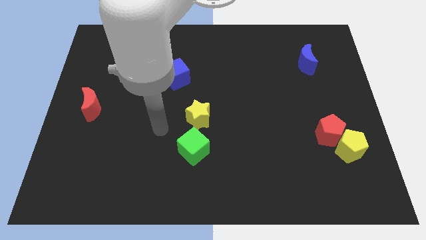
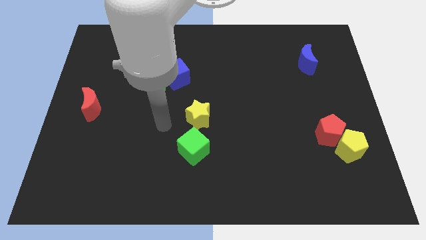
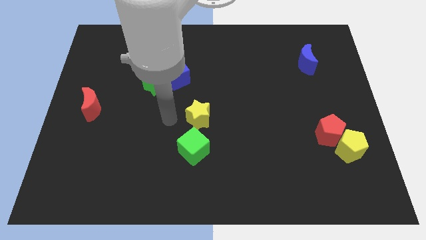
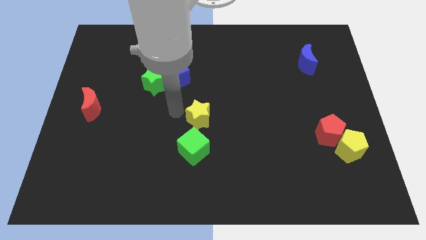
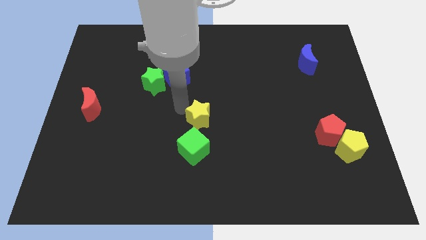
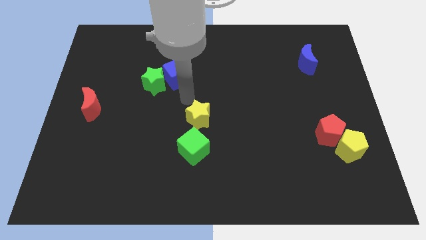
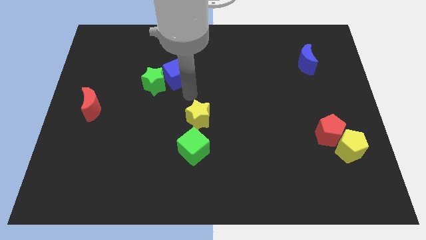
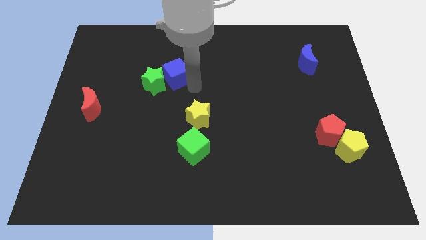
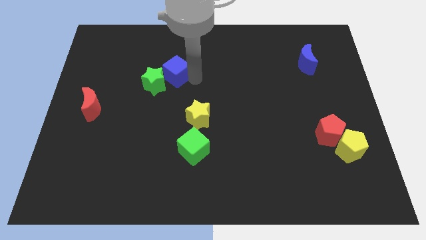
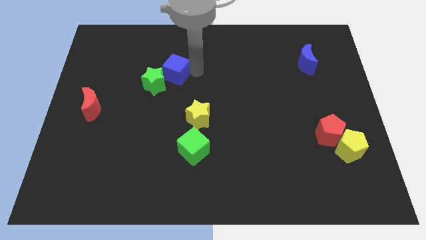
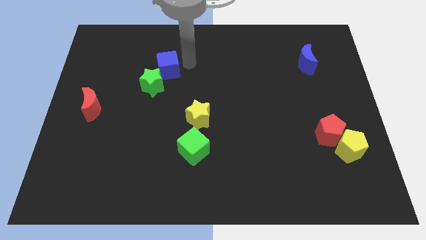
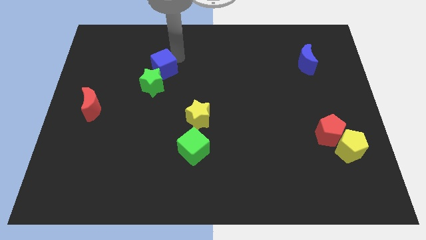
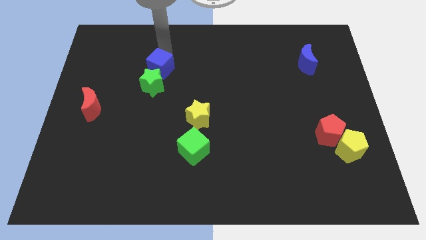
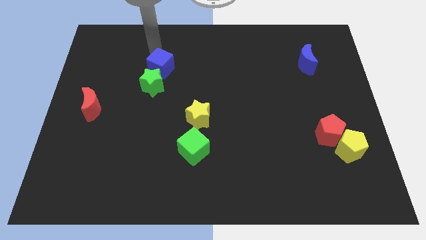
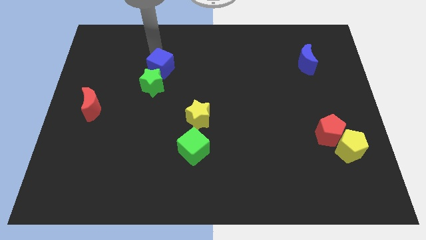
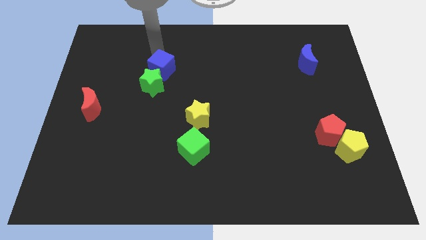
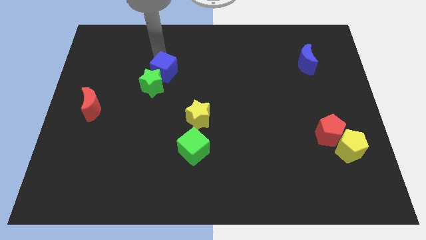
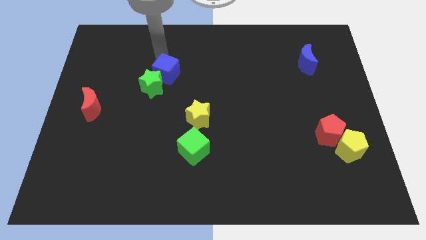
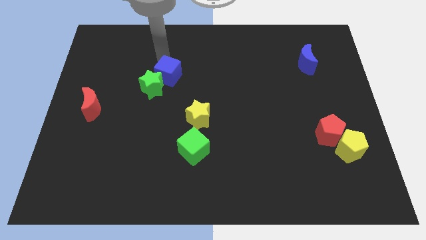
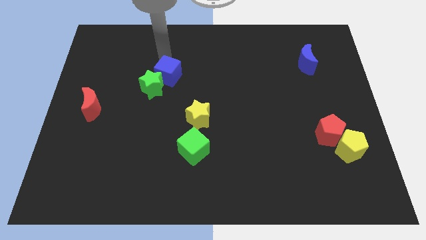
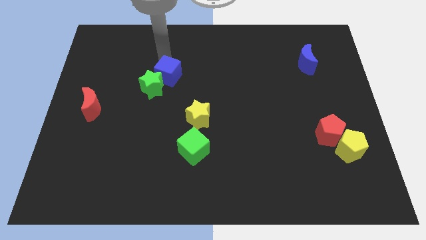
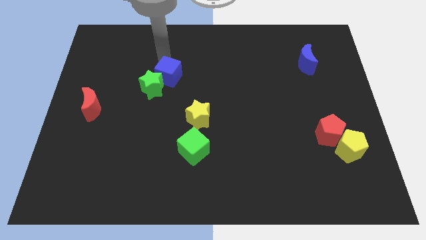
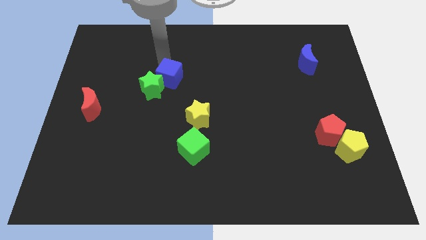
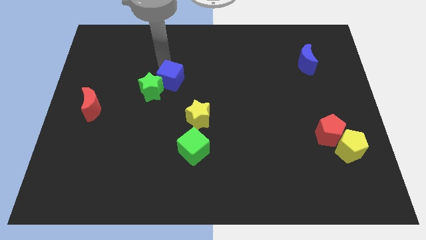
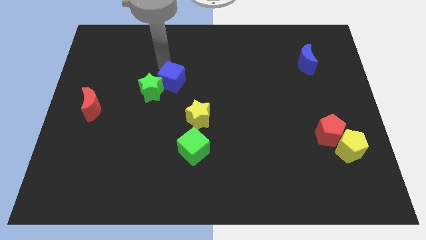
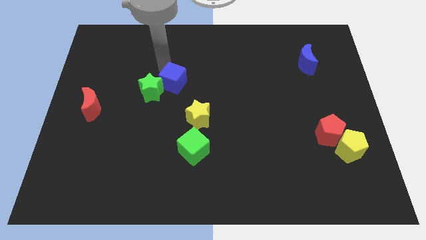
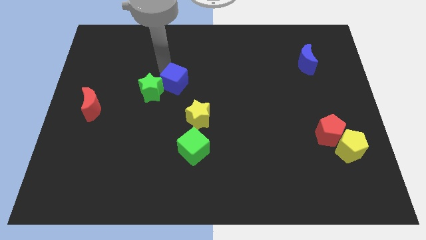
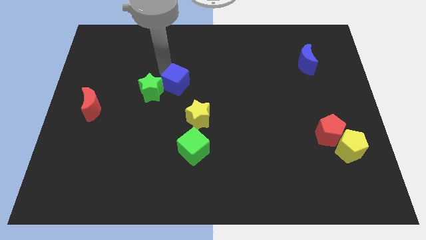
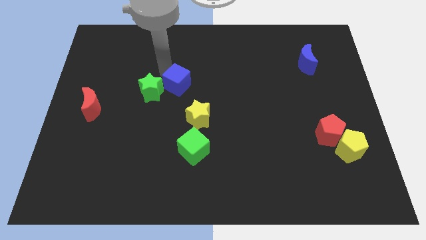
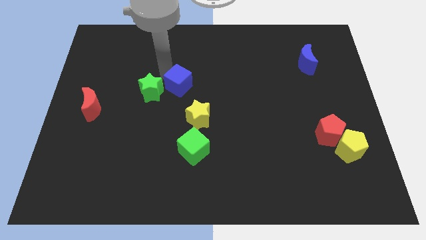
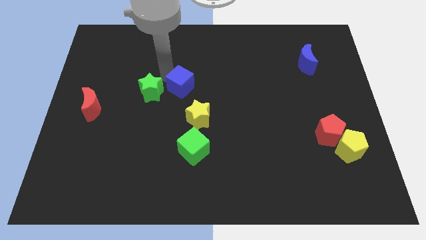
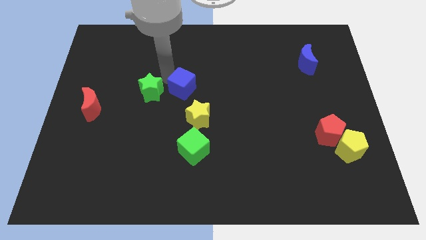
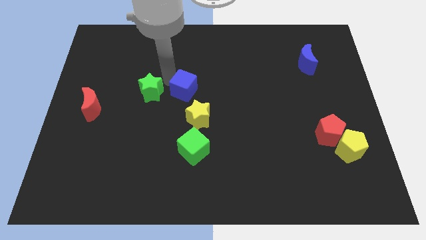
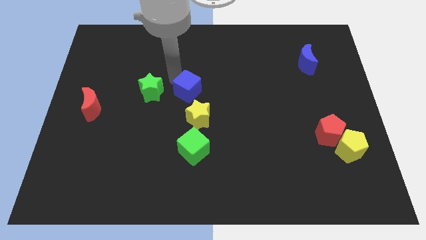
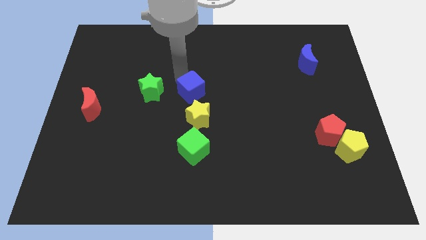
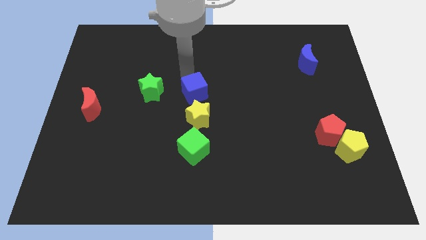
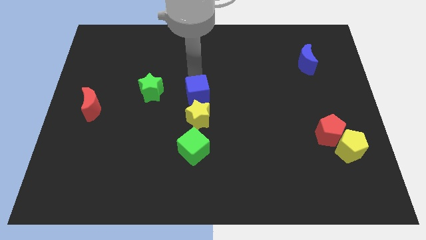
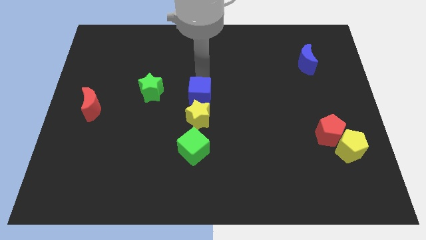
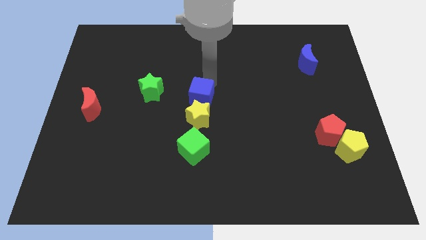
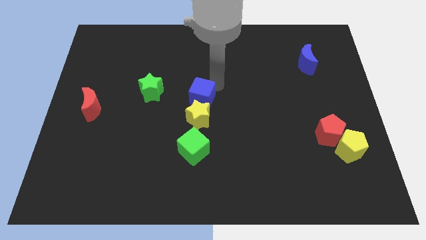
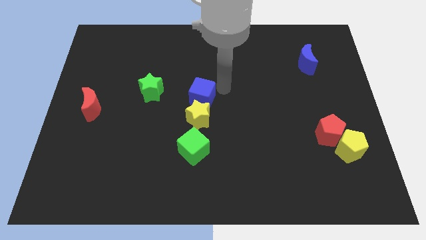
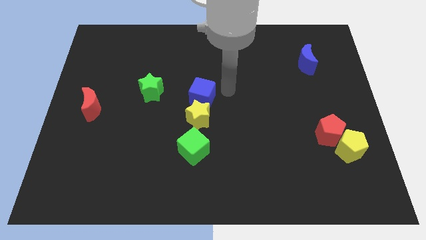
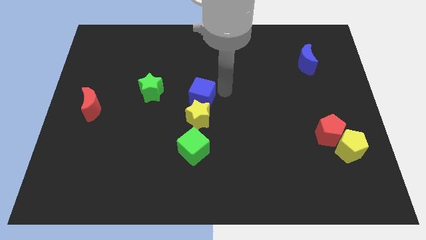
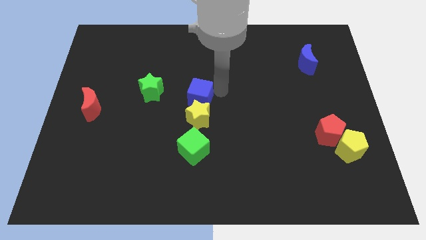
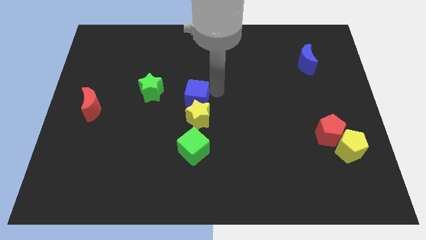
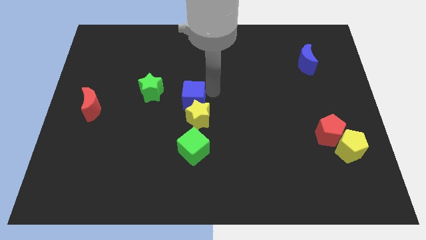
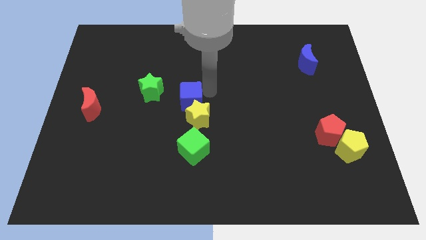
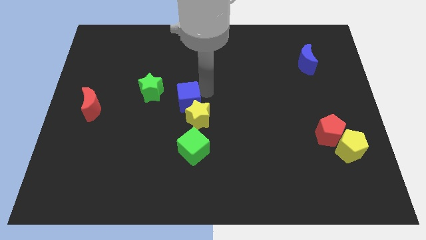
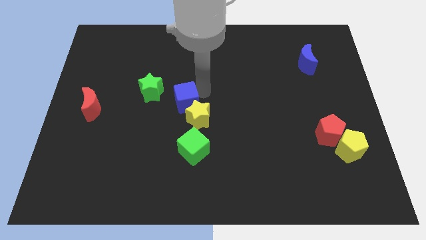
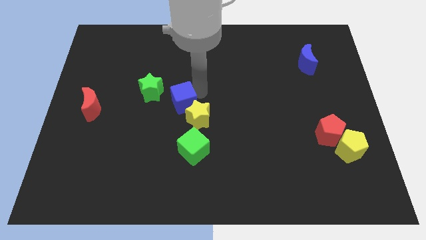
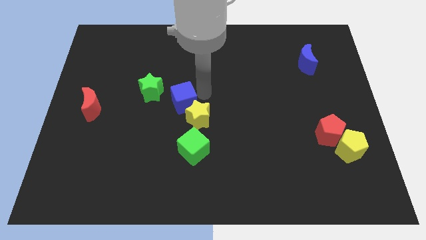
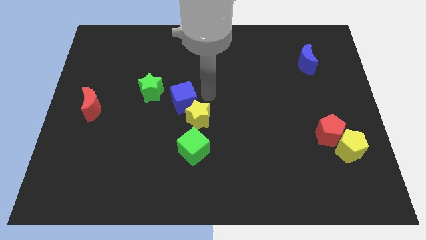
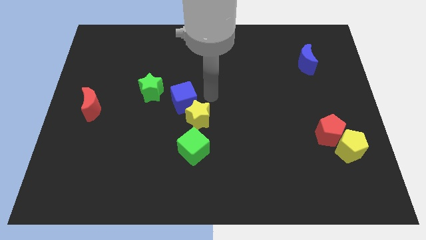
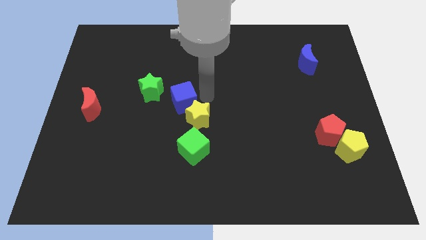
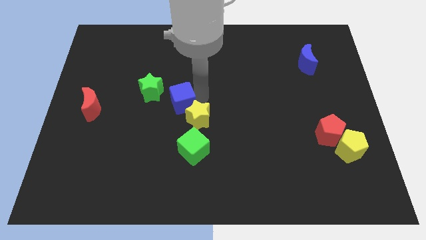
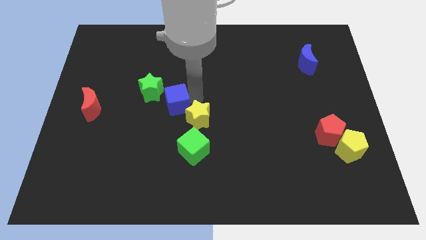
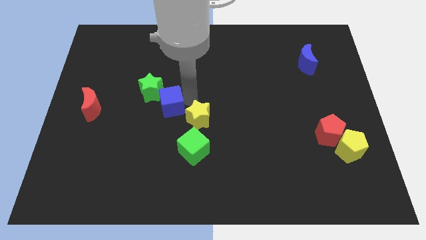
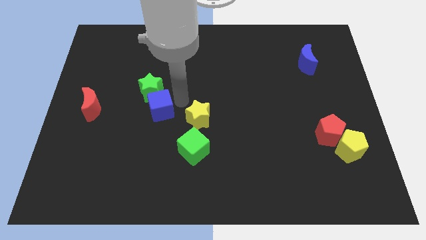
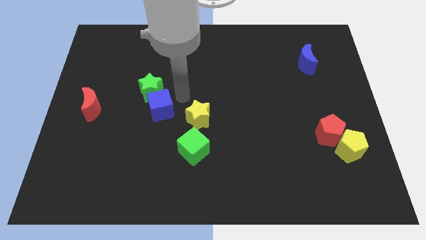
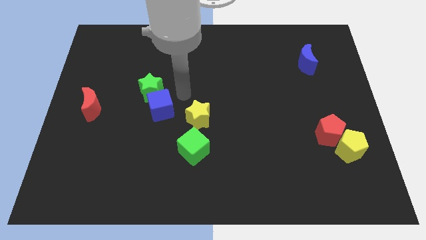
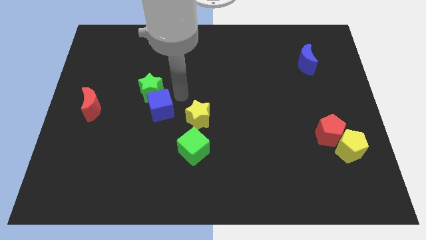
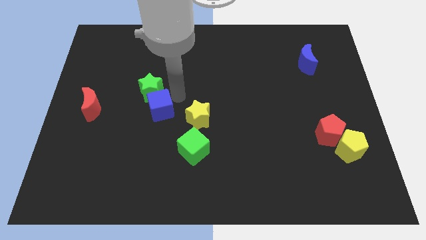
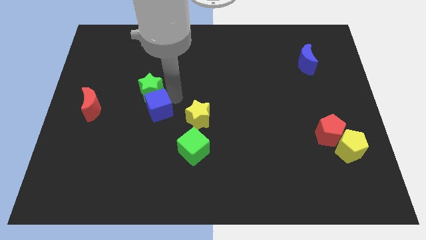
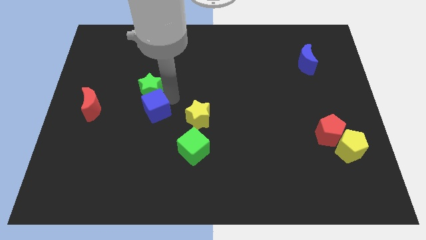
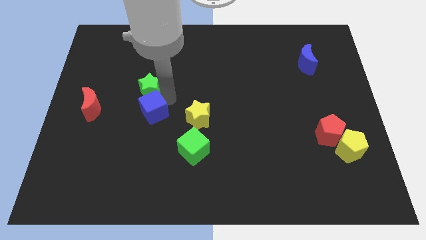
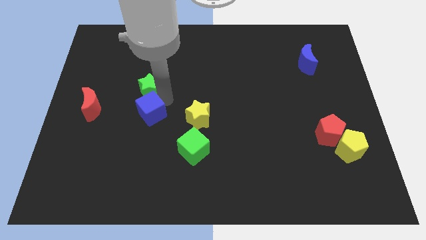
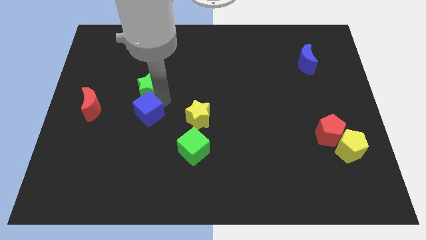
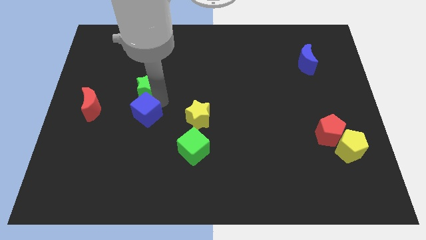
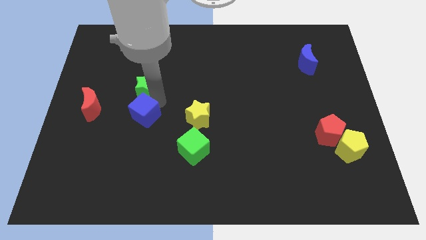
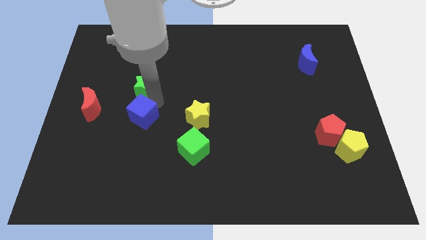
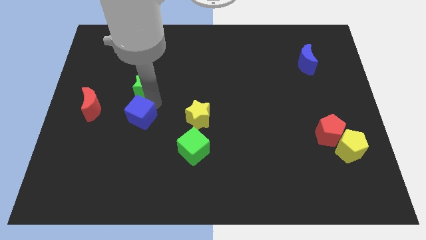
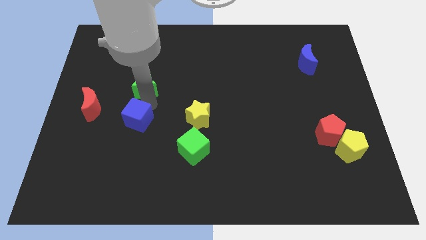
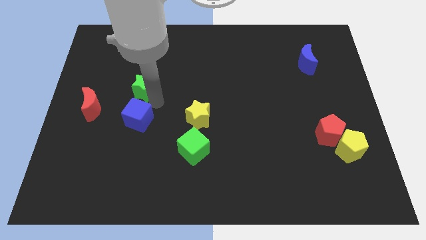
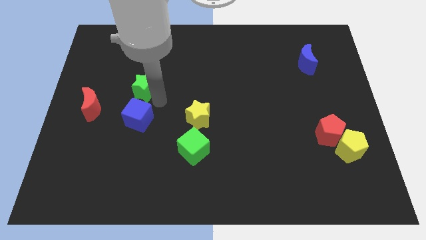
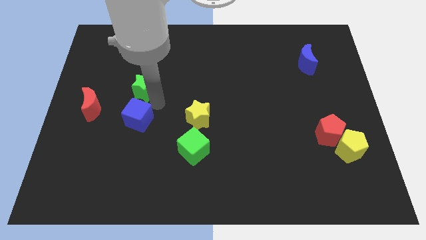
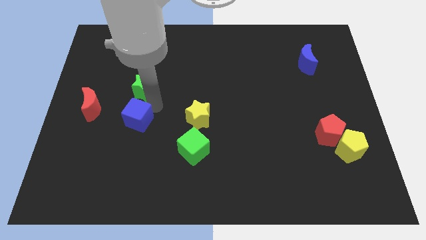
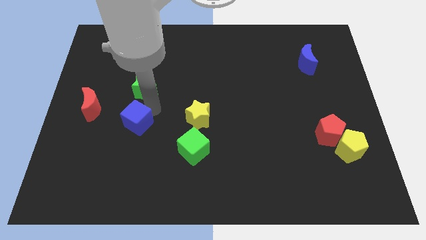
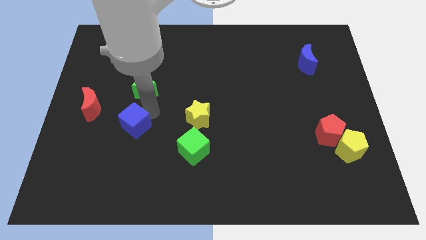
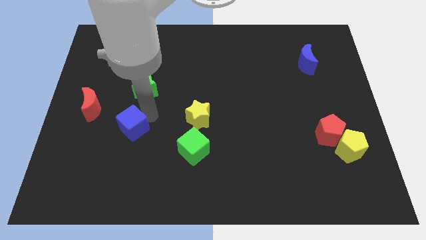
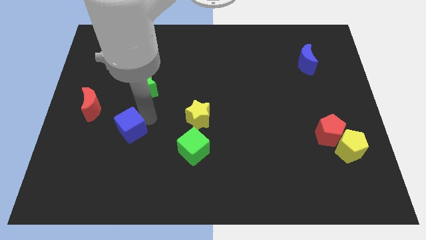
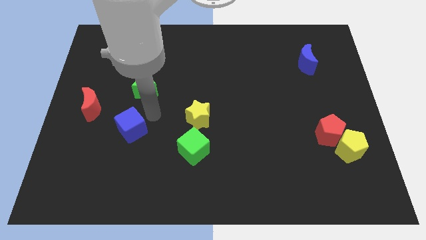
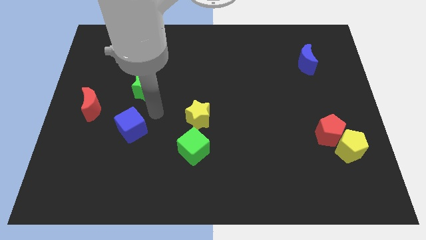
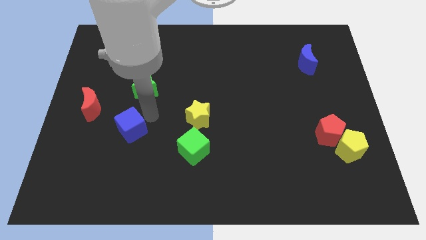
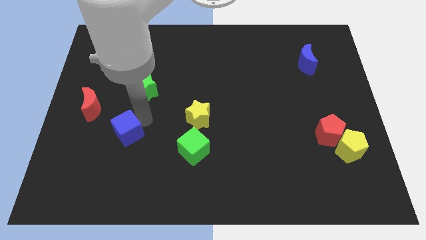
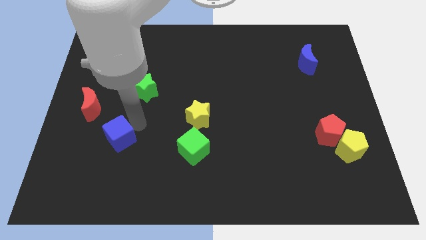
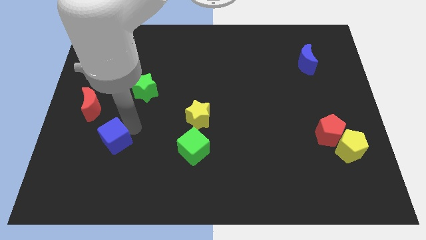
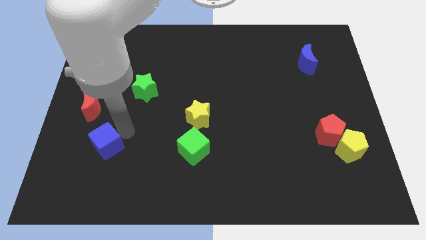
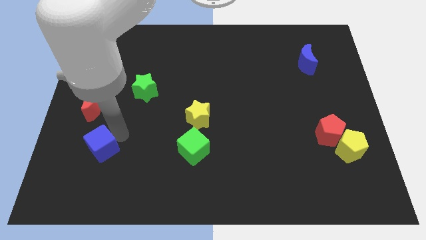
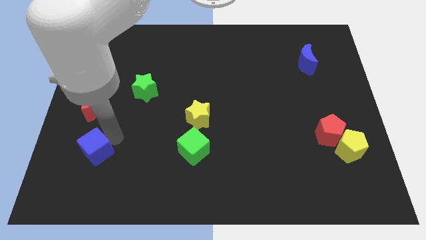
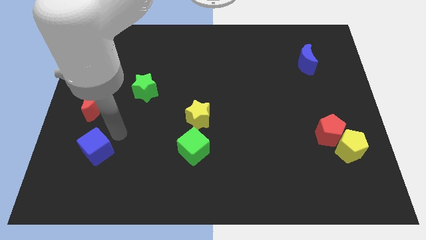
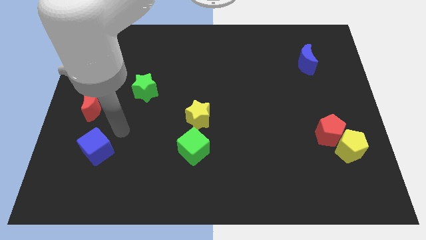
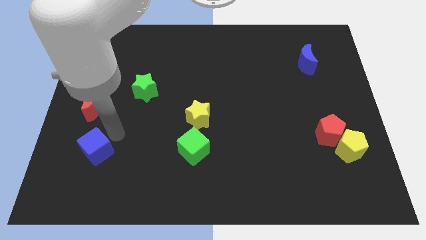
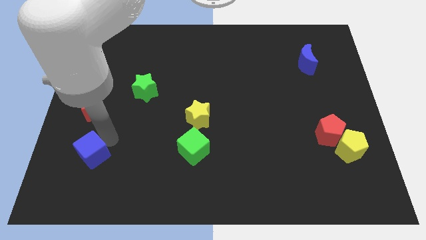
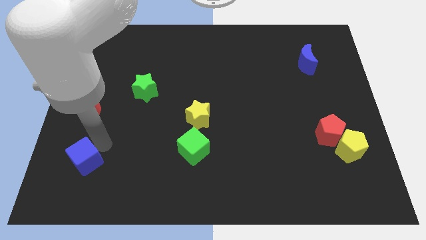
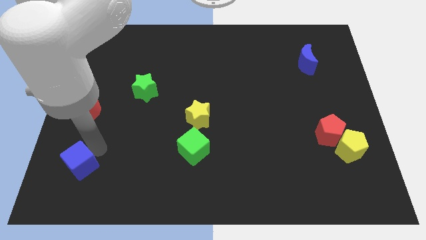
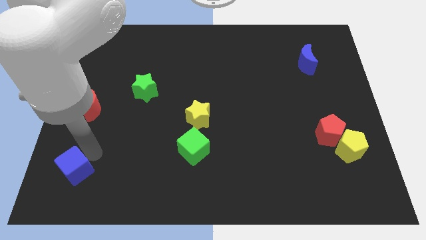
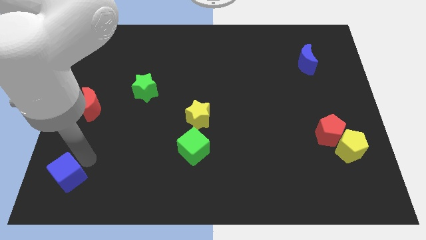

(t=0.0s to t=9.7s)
move the blue cube to the lower left corner
